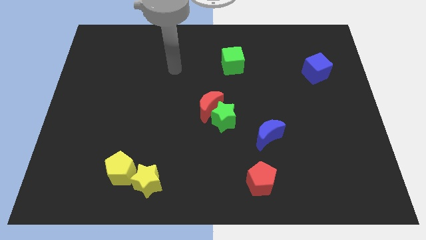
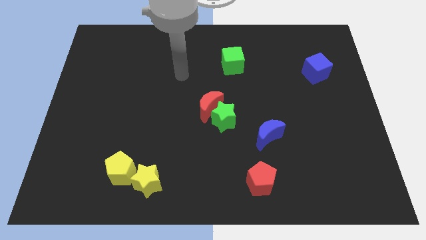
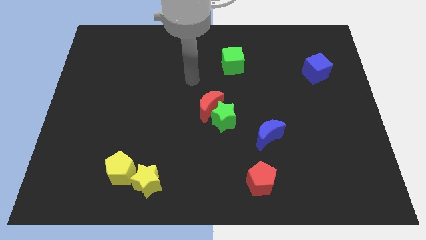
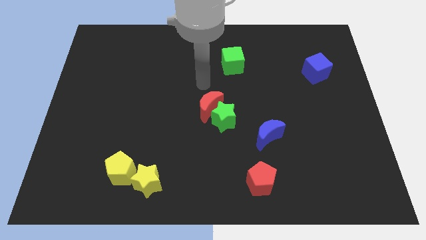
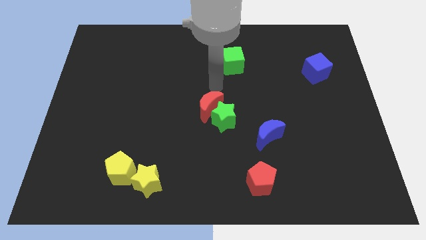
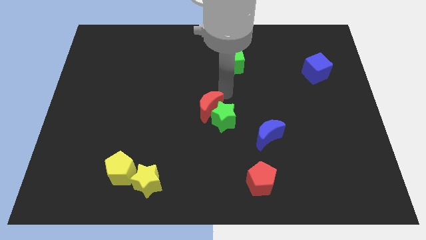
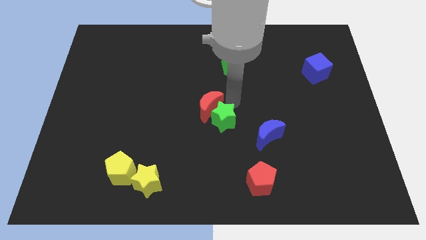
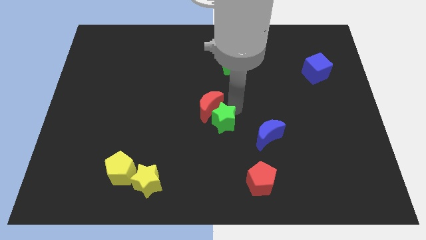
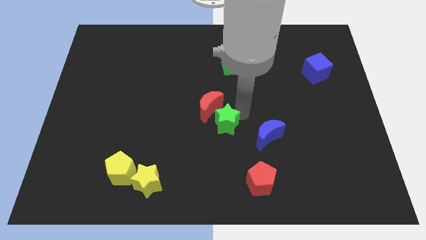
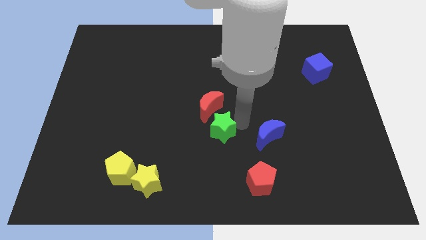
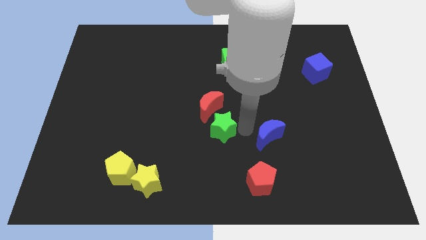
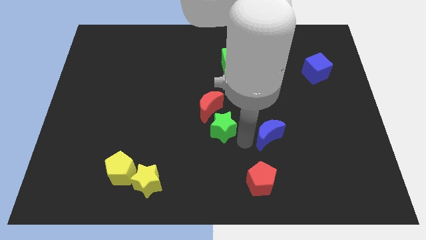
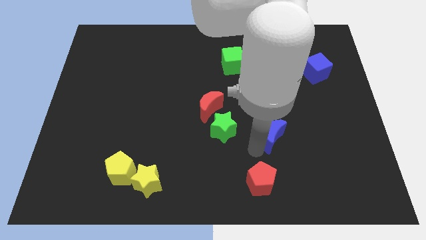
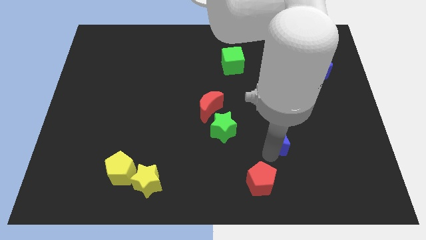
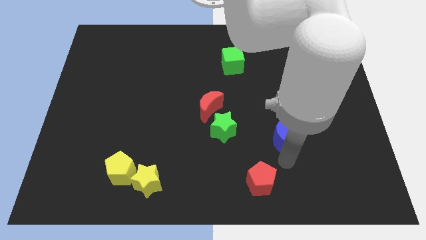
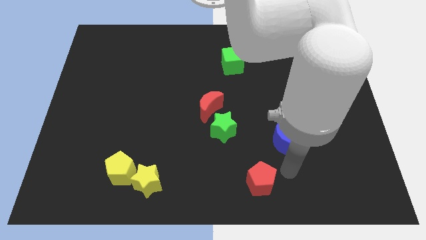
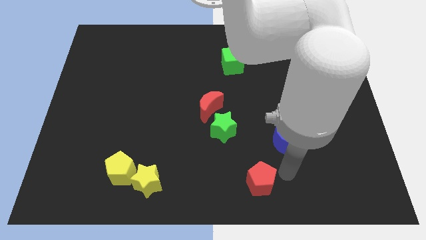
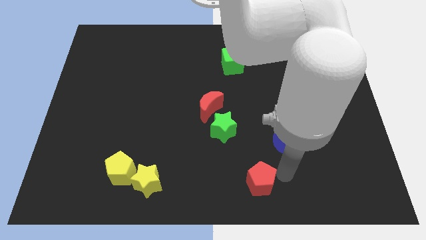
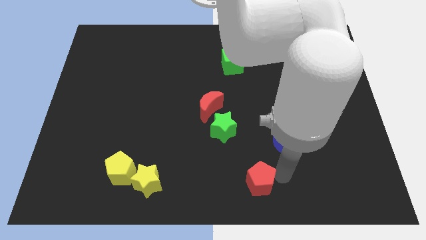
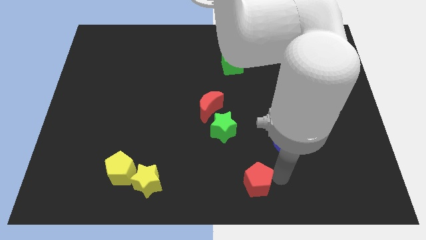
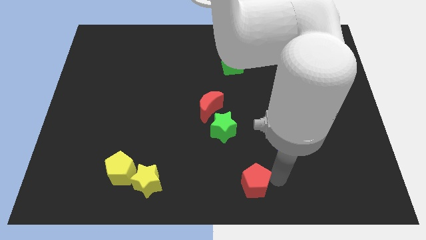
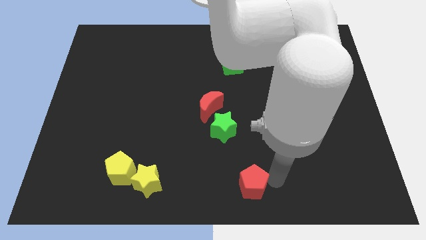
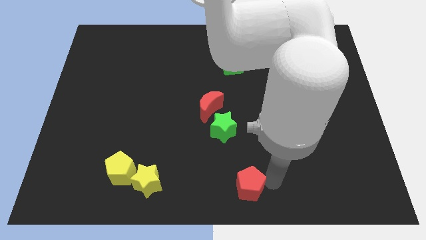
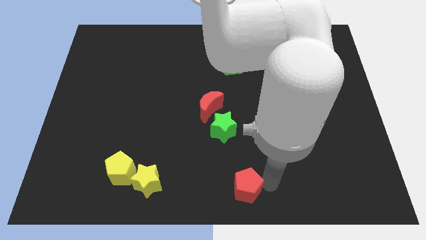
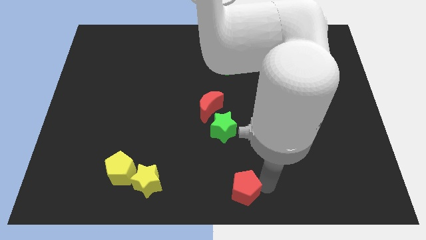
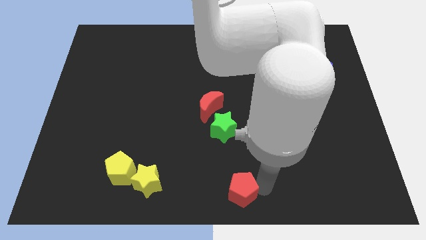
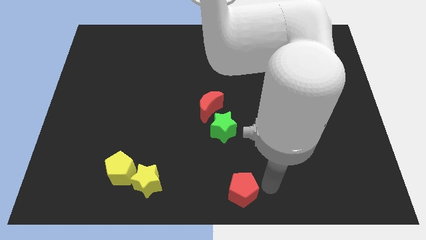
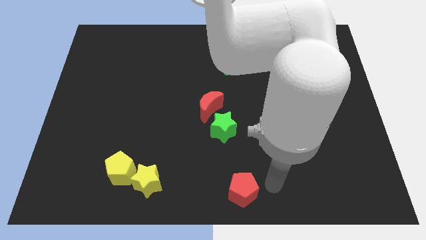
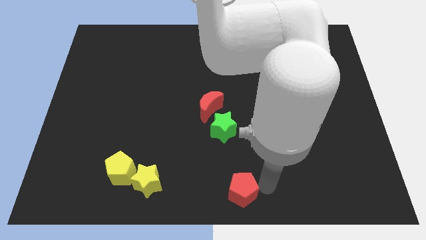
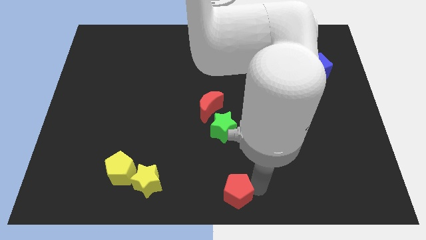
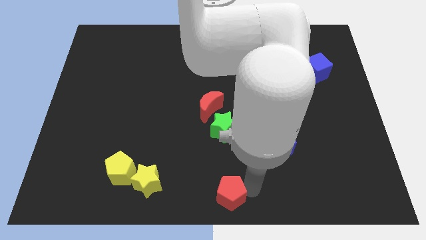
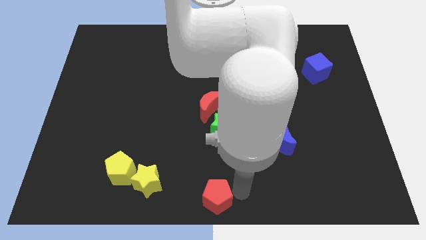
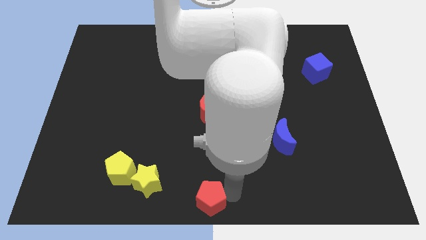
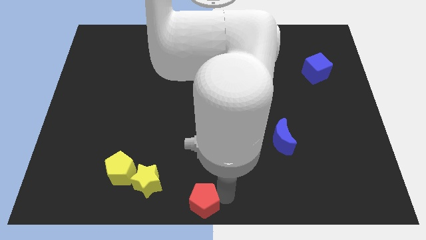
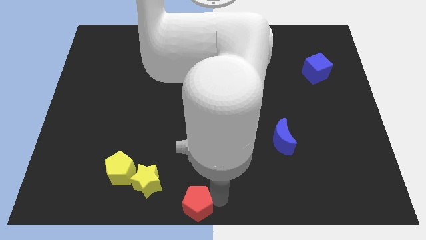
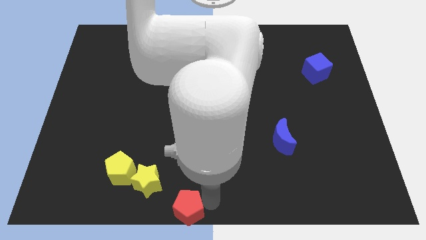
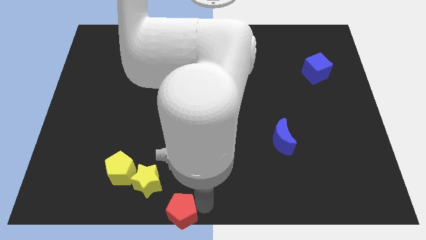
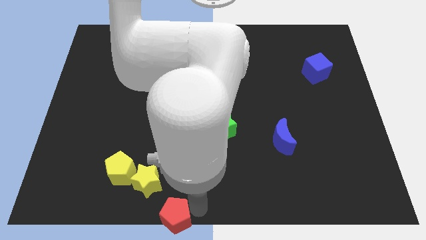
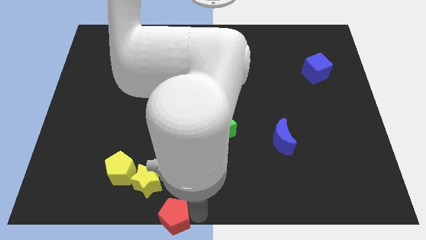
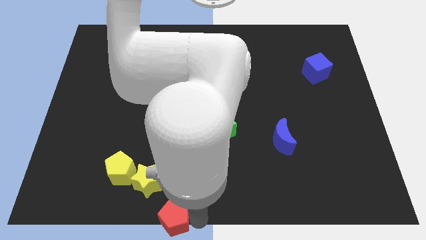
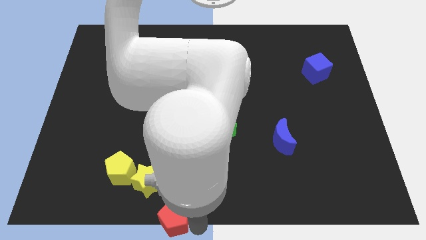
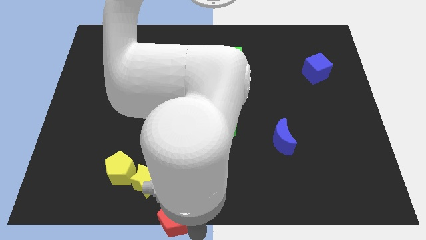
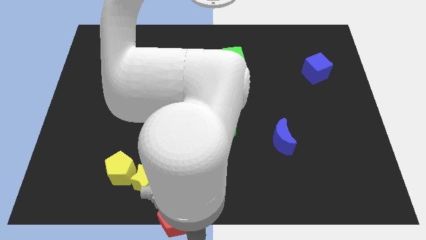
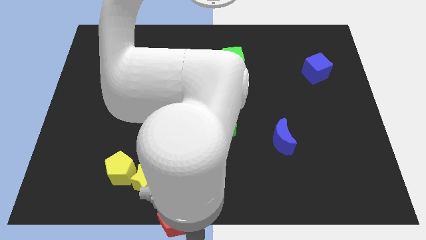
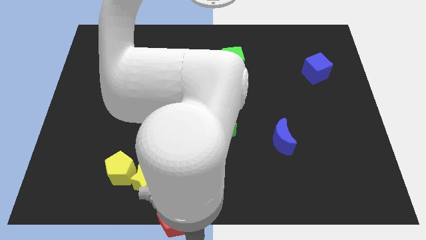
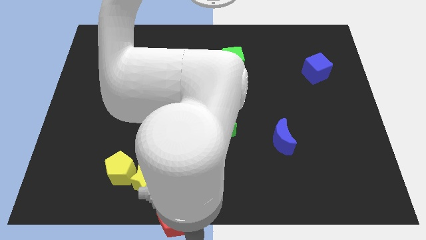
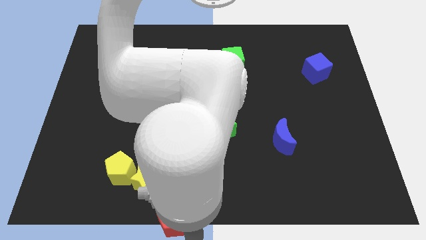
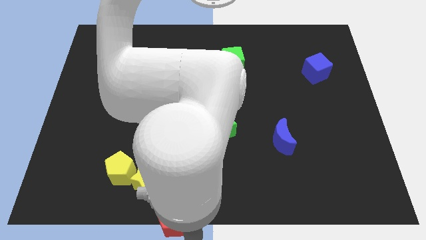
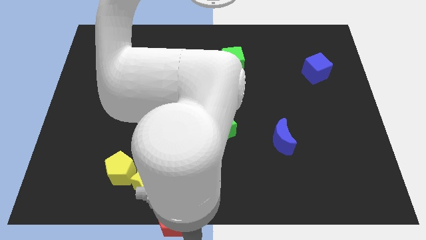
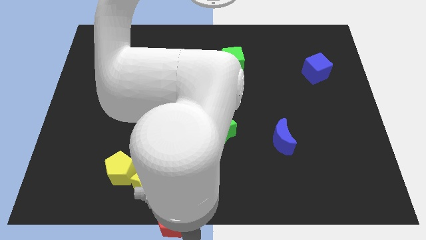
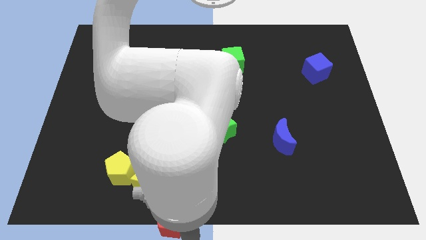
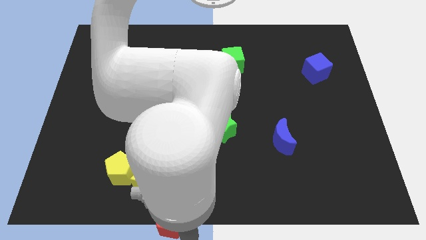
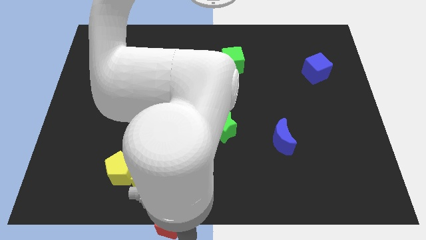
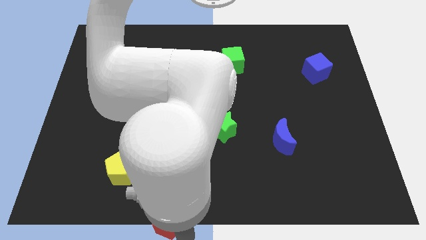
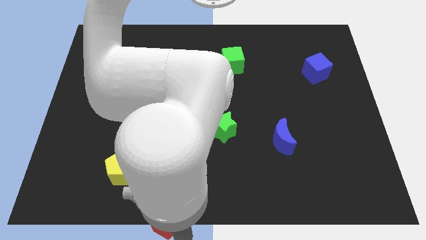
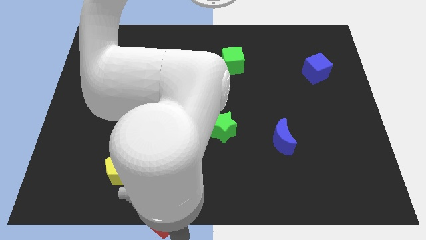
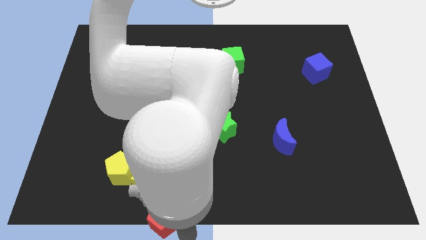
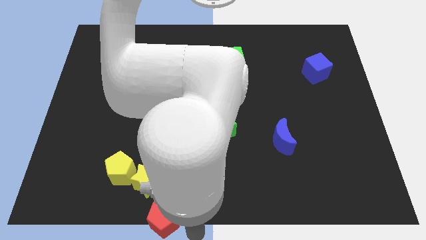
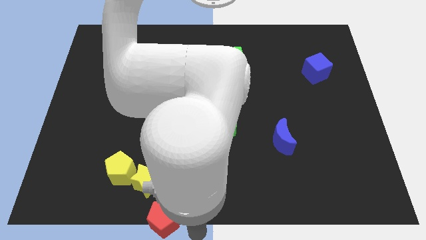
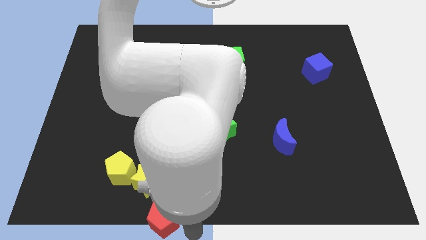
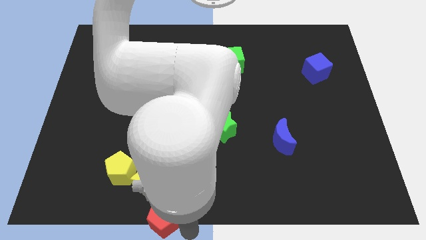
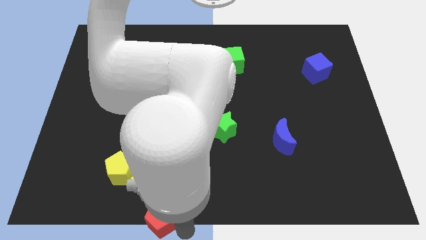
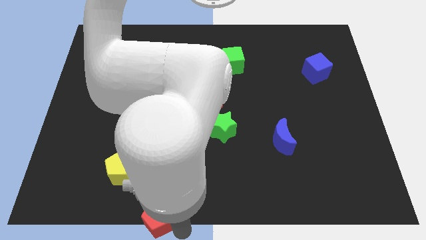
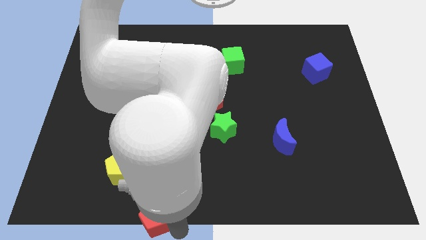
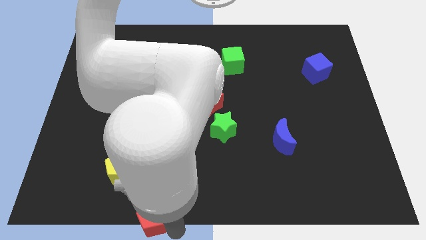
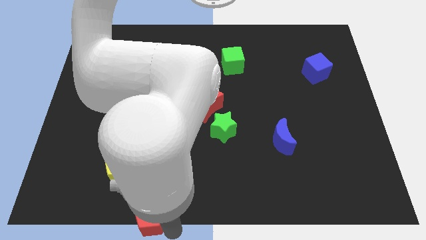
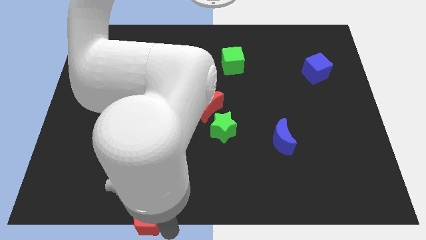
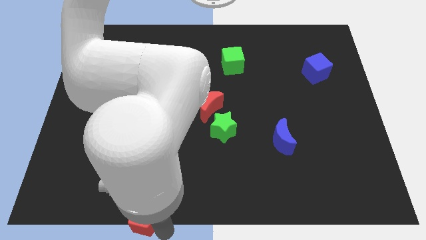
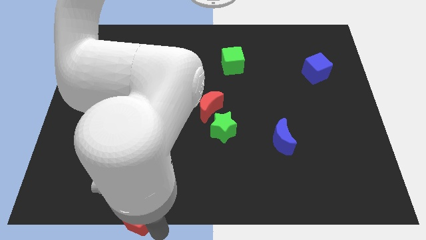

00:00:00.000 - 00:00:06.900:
push the red pentagon to the left

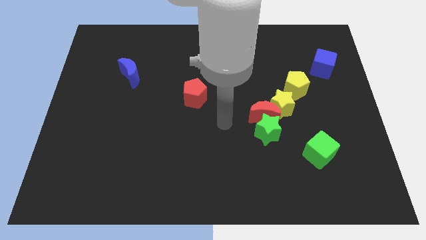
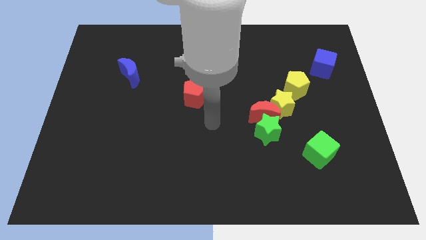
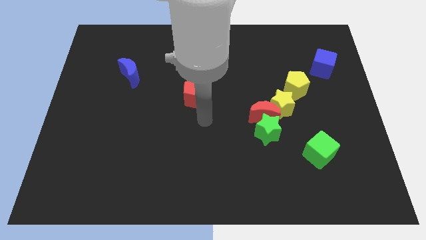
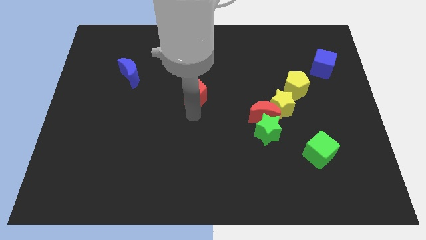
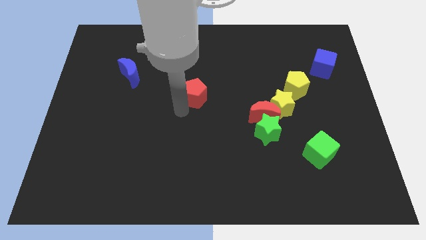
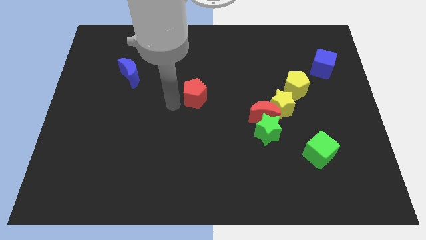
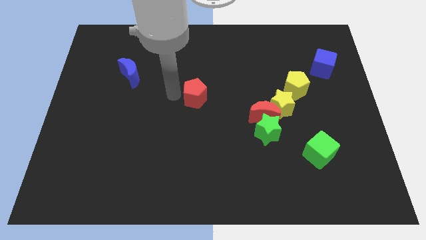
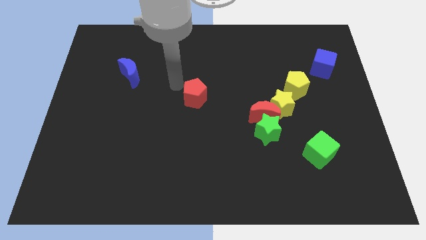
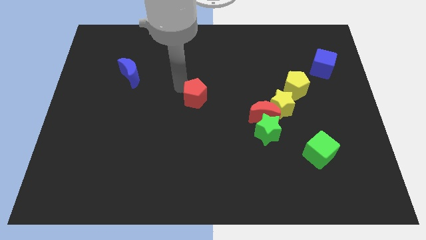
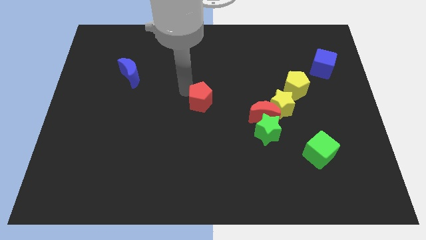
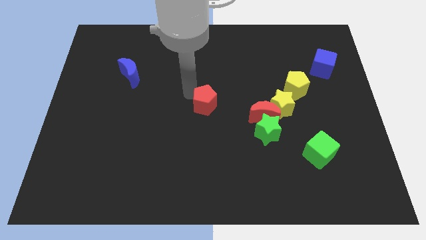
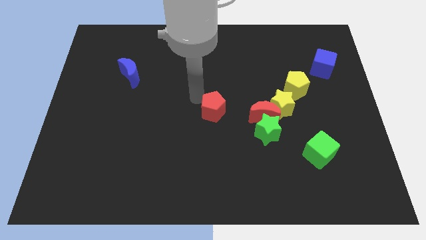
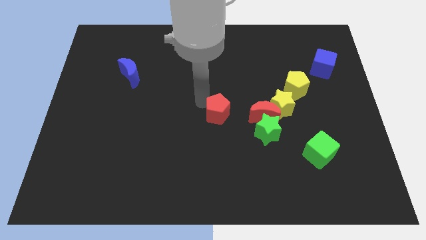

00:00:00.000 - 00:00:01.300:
slide the red pentagon down and to the right diagonally slightly
